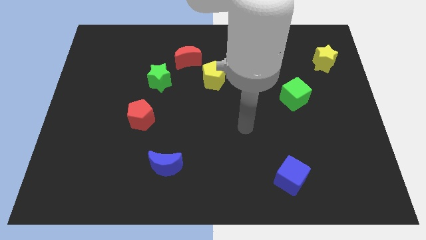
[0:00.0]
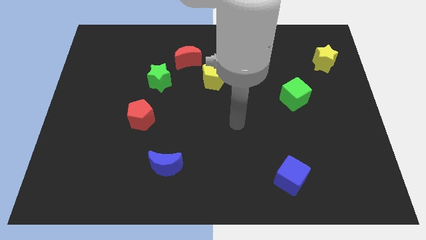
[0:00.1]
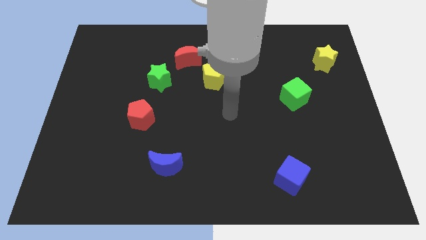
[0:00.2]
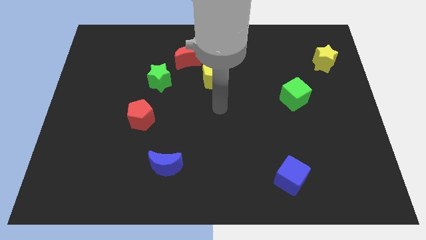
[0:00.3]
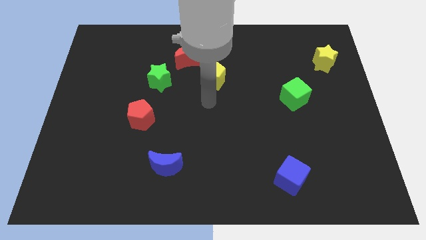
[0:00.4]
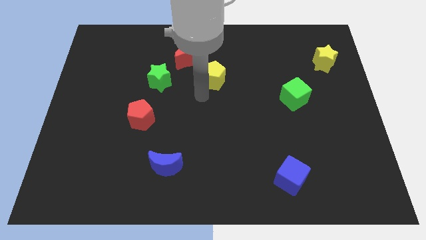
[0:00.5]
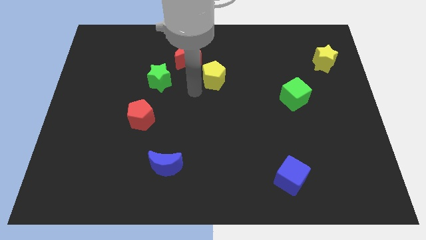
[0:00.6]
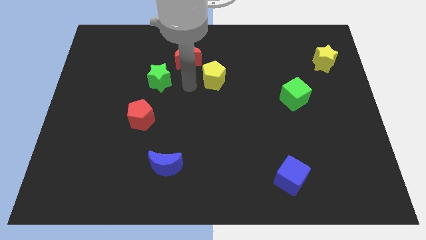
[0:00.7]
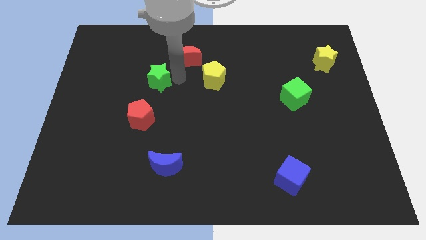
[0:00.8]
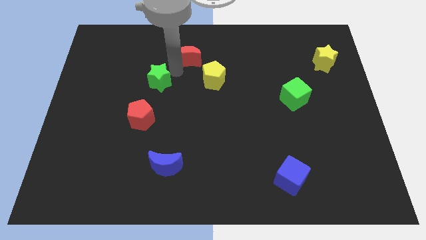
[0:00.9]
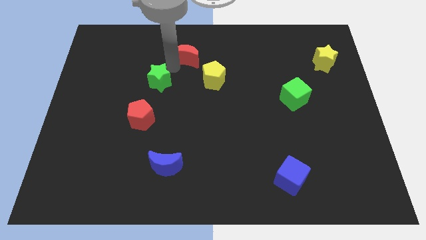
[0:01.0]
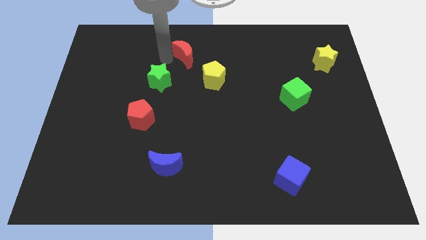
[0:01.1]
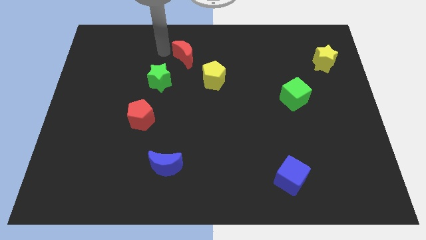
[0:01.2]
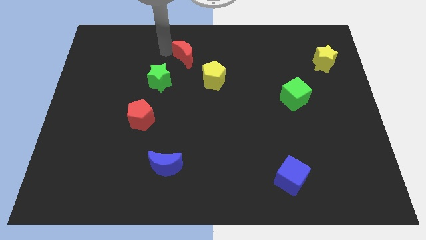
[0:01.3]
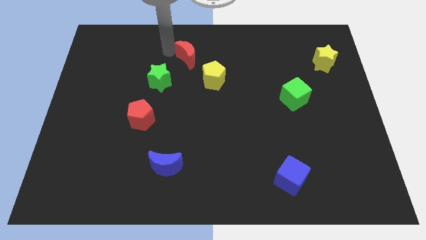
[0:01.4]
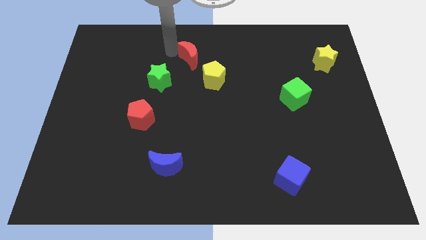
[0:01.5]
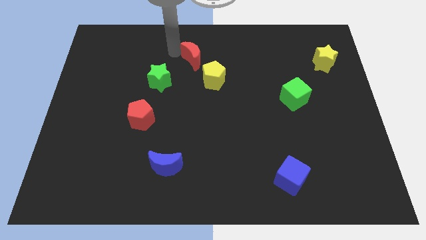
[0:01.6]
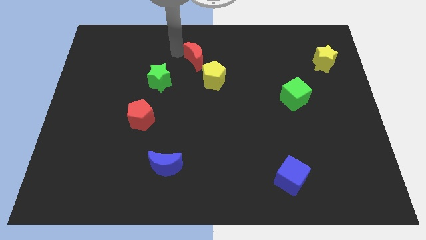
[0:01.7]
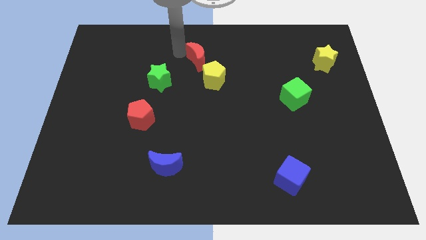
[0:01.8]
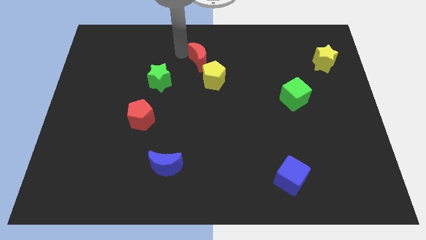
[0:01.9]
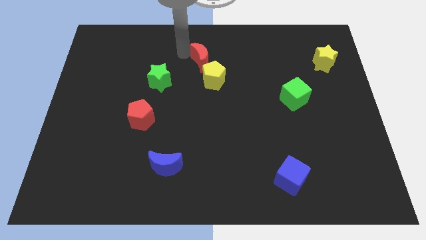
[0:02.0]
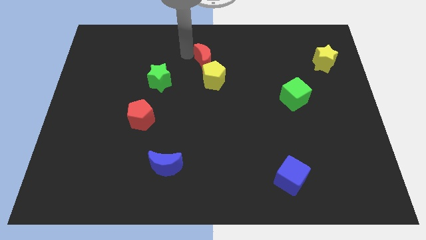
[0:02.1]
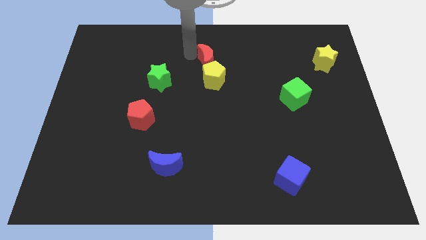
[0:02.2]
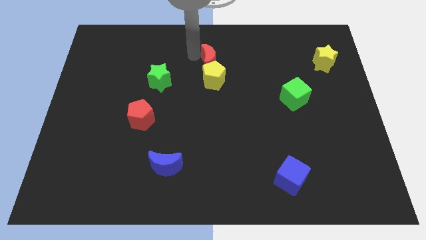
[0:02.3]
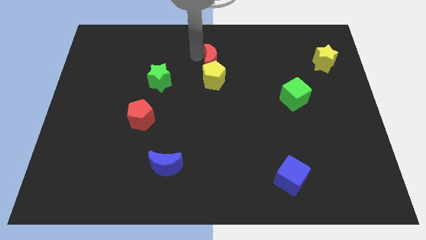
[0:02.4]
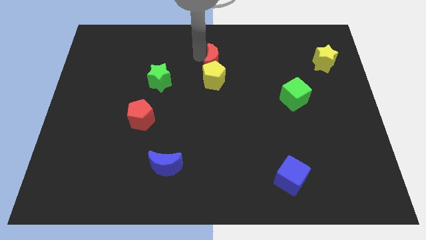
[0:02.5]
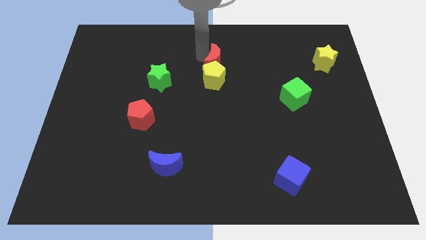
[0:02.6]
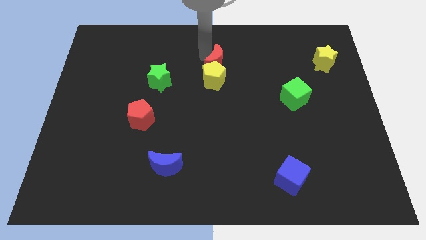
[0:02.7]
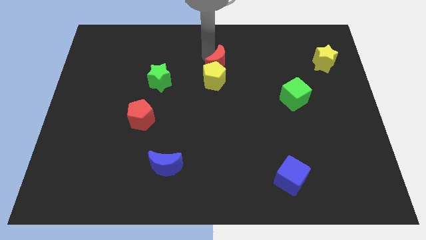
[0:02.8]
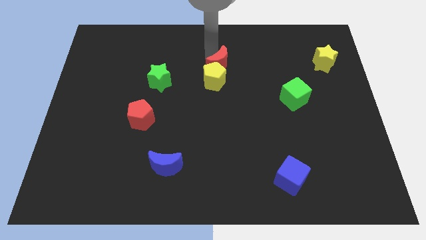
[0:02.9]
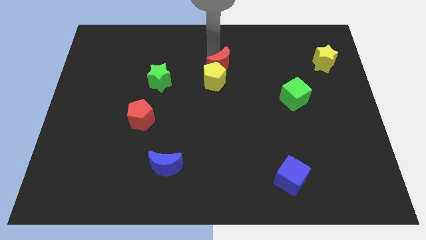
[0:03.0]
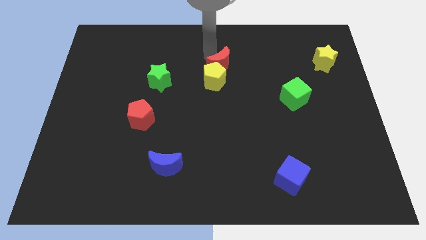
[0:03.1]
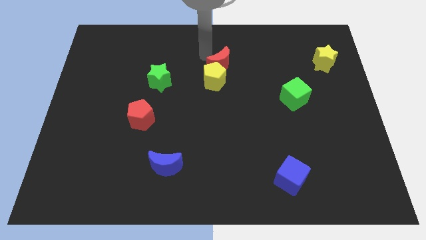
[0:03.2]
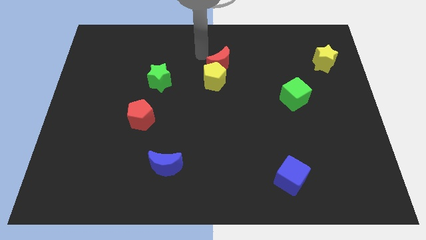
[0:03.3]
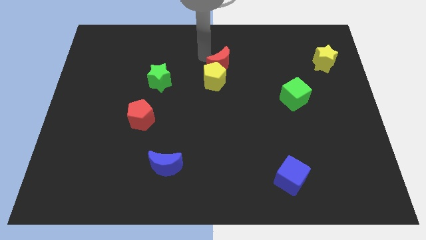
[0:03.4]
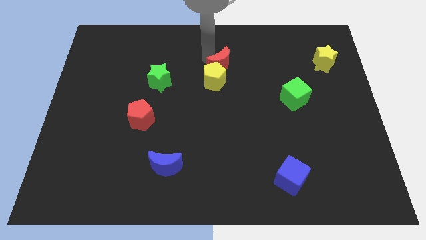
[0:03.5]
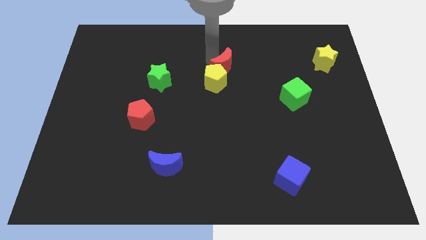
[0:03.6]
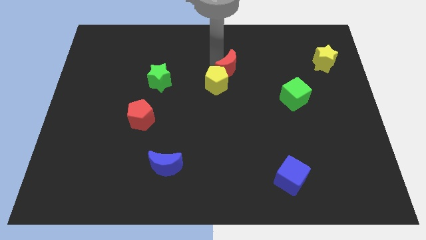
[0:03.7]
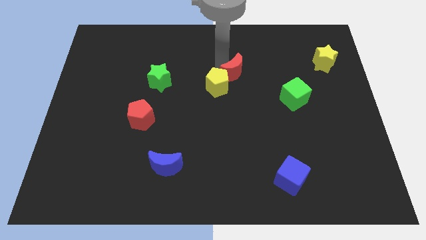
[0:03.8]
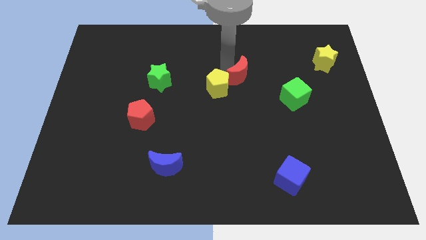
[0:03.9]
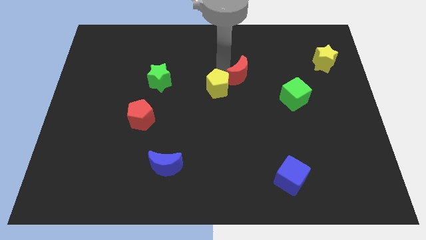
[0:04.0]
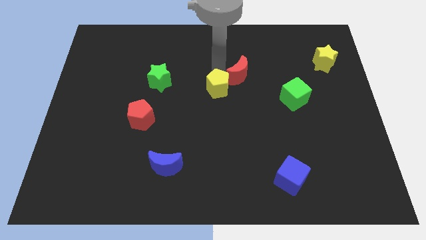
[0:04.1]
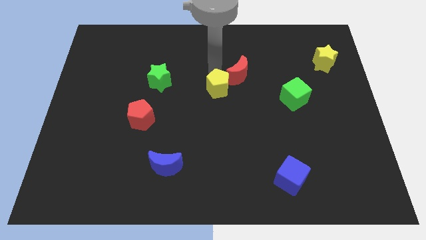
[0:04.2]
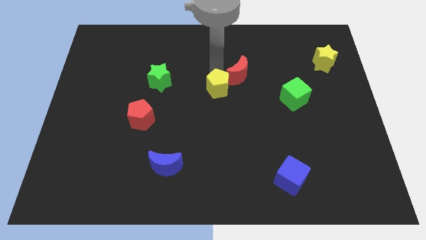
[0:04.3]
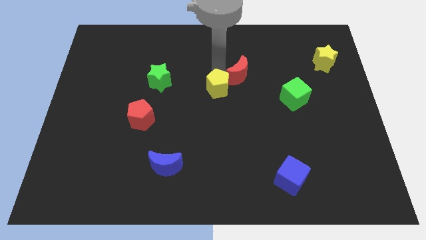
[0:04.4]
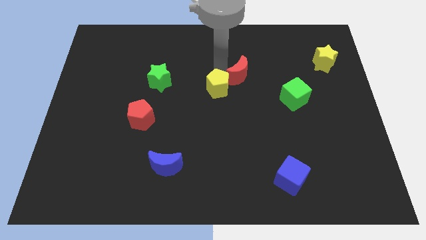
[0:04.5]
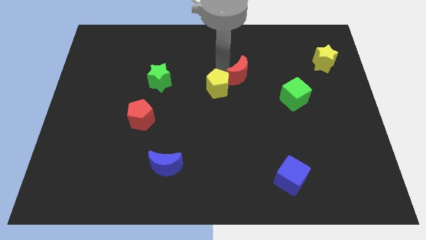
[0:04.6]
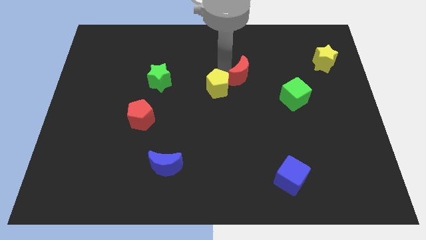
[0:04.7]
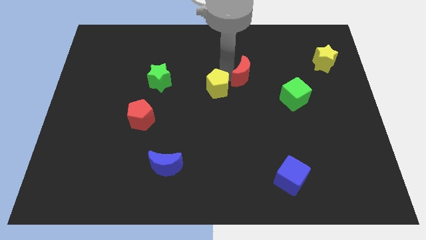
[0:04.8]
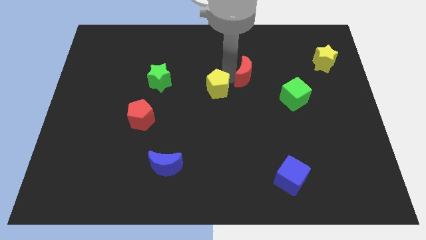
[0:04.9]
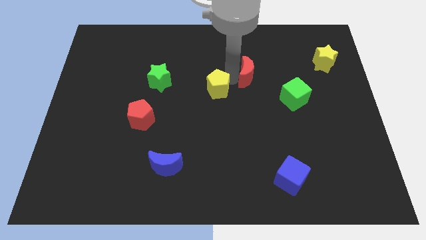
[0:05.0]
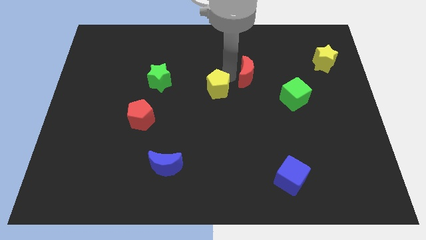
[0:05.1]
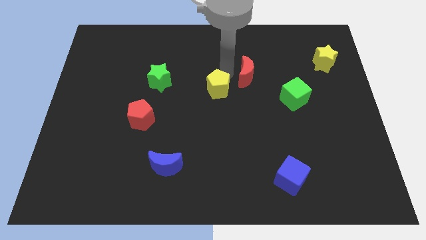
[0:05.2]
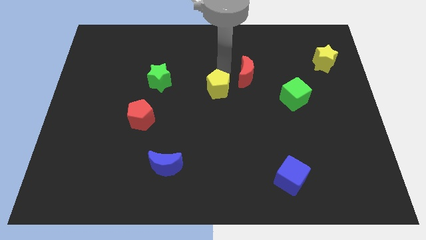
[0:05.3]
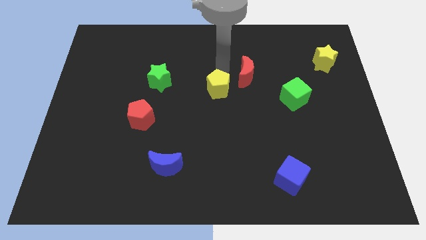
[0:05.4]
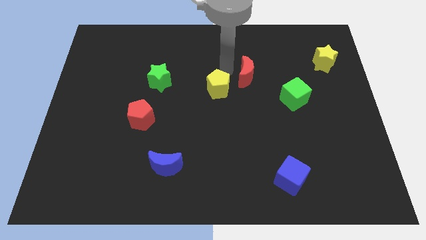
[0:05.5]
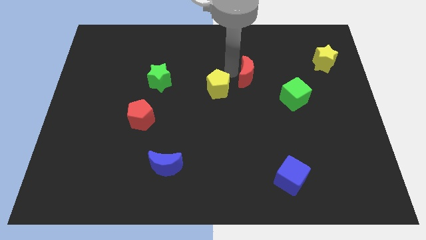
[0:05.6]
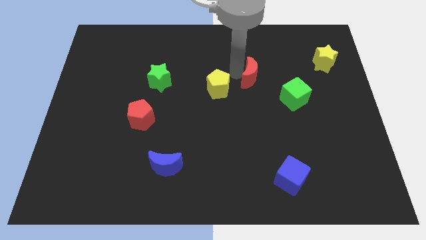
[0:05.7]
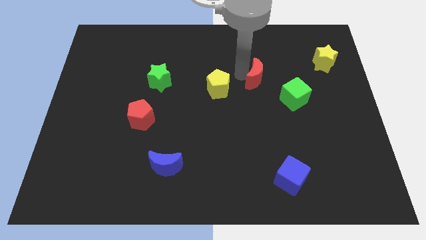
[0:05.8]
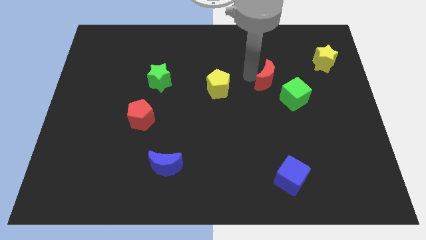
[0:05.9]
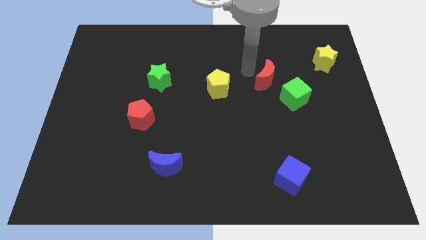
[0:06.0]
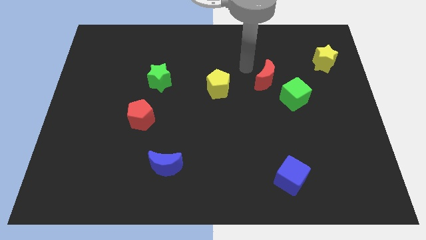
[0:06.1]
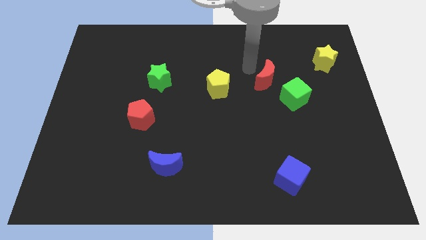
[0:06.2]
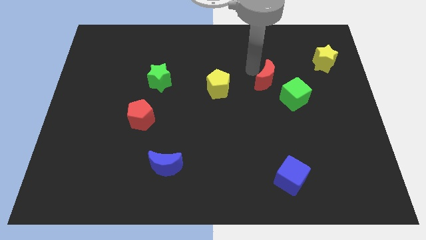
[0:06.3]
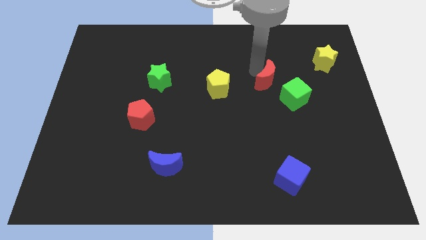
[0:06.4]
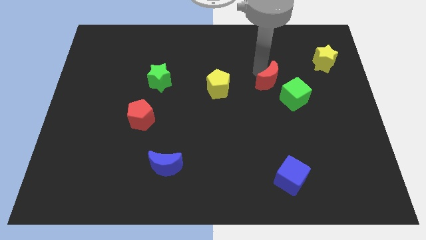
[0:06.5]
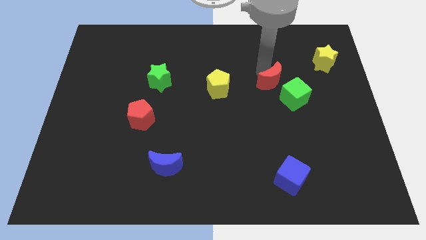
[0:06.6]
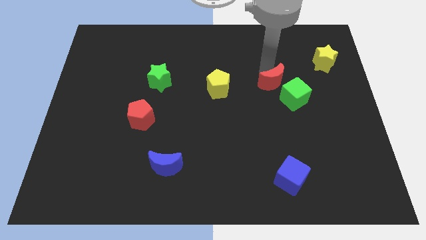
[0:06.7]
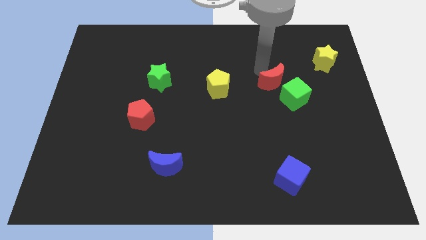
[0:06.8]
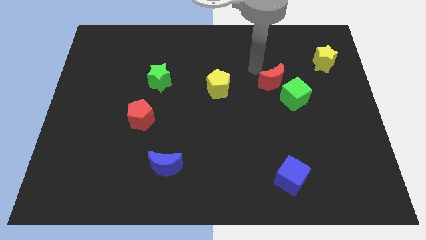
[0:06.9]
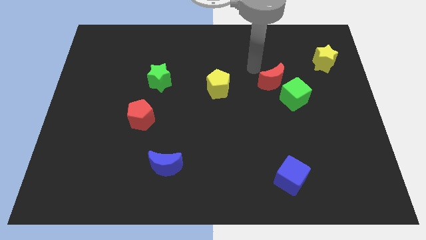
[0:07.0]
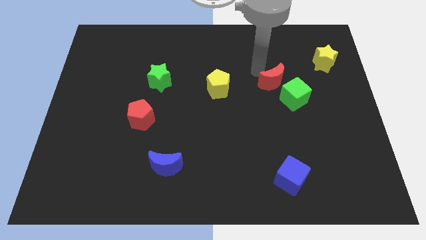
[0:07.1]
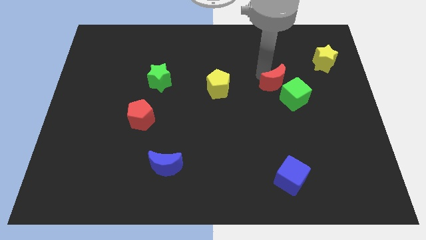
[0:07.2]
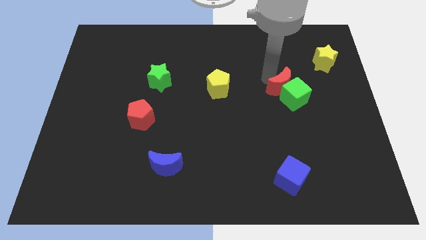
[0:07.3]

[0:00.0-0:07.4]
move the red moon towards the green cube
